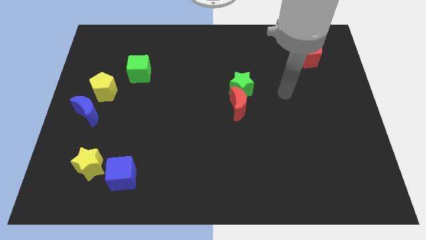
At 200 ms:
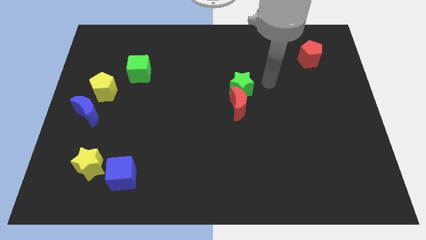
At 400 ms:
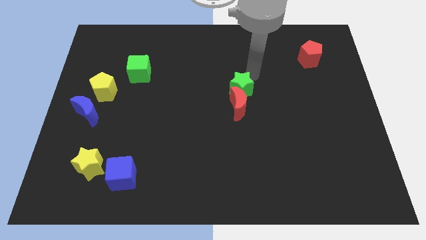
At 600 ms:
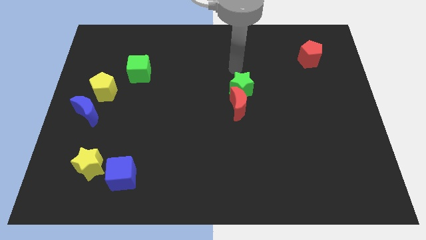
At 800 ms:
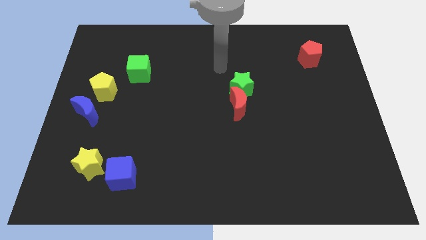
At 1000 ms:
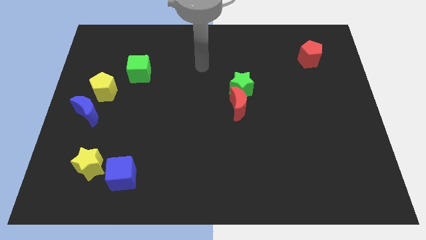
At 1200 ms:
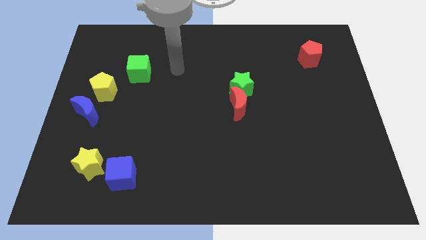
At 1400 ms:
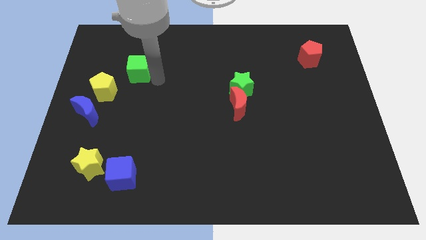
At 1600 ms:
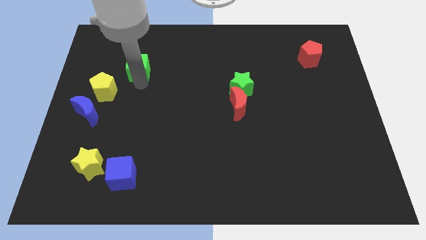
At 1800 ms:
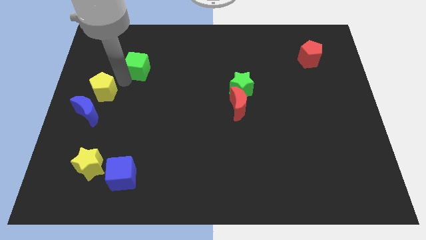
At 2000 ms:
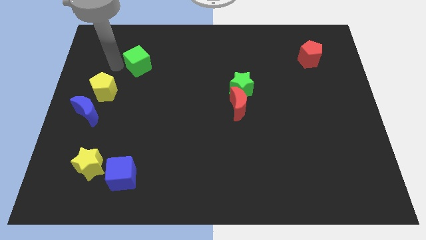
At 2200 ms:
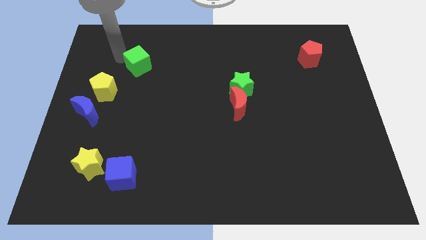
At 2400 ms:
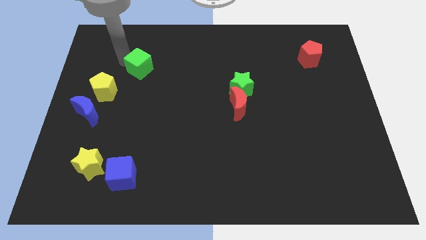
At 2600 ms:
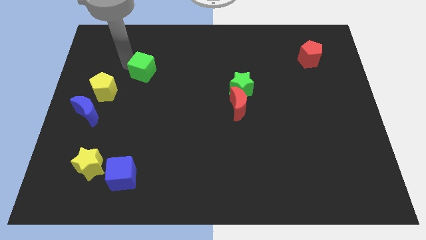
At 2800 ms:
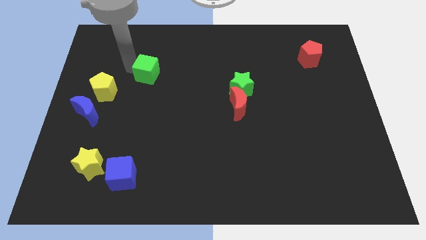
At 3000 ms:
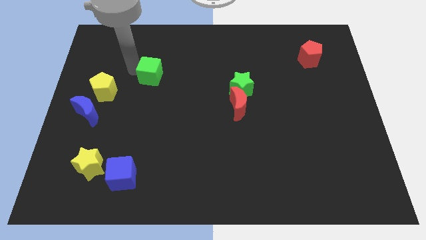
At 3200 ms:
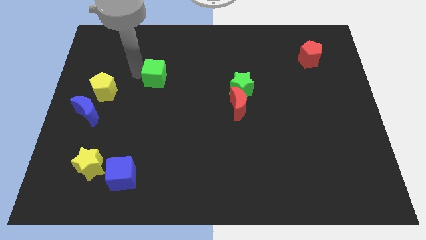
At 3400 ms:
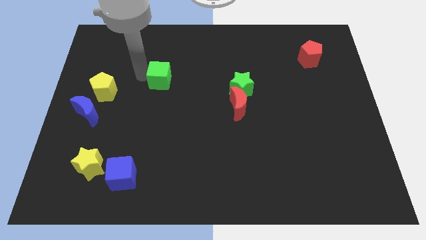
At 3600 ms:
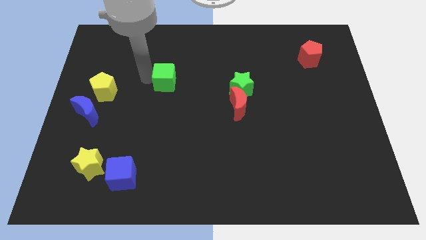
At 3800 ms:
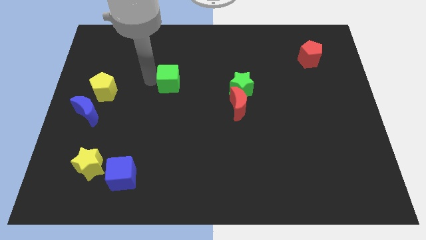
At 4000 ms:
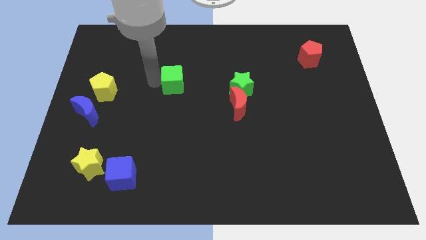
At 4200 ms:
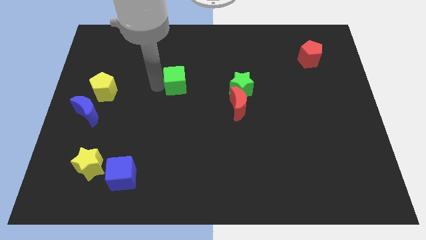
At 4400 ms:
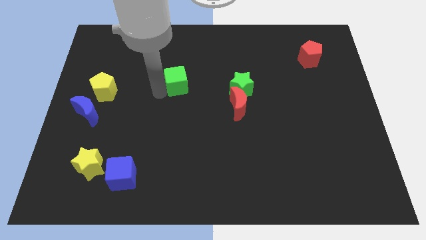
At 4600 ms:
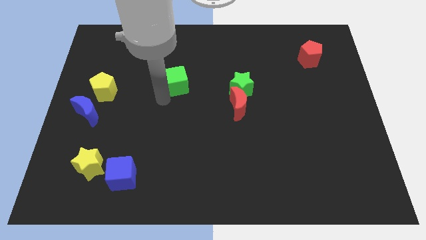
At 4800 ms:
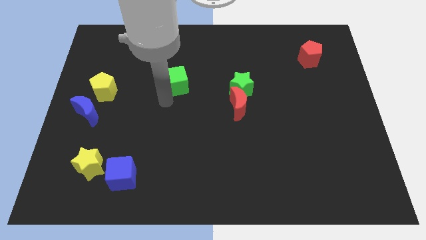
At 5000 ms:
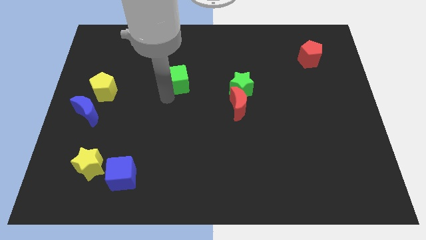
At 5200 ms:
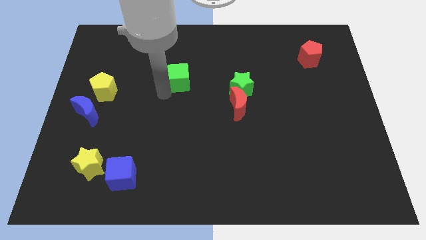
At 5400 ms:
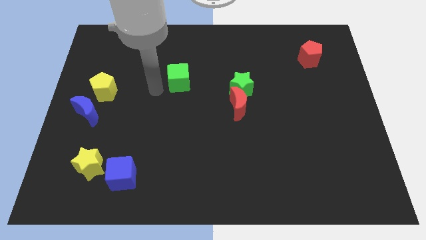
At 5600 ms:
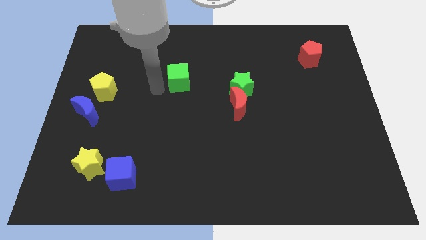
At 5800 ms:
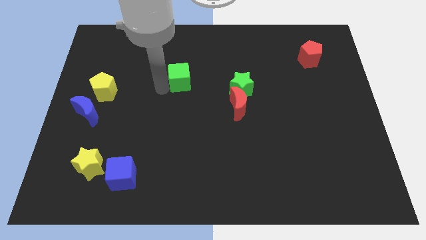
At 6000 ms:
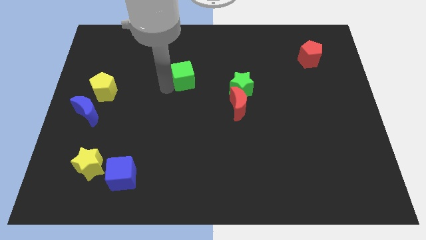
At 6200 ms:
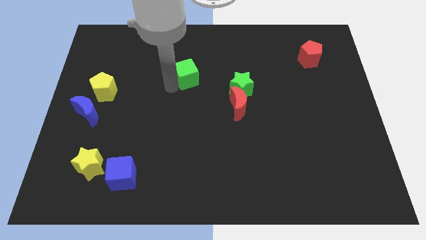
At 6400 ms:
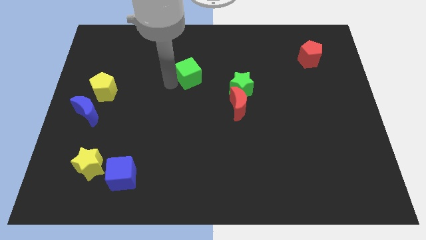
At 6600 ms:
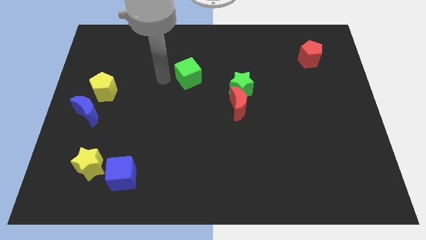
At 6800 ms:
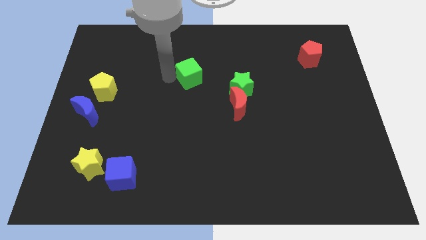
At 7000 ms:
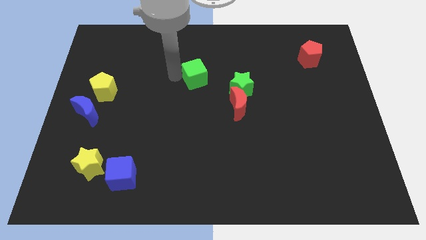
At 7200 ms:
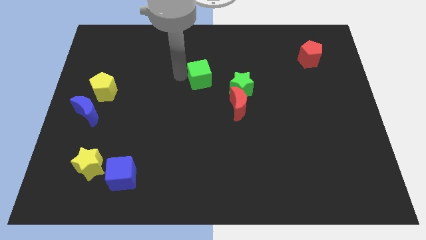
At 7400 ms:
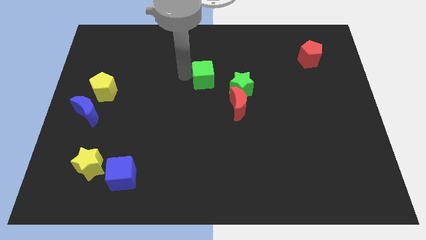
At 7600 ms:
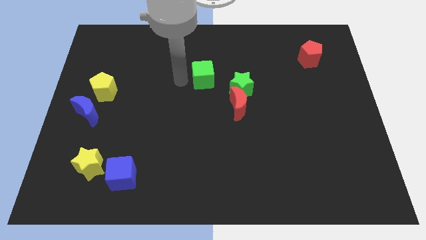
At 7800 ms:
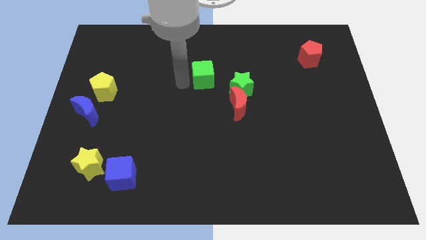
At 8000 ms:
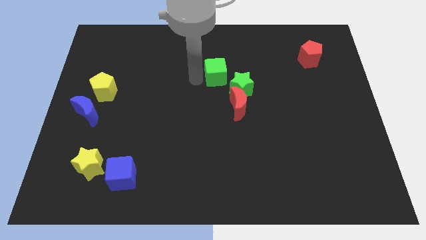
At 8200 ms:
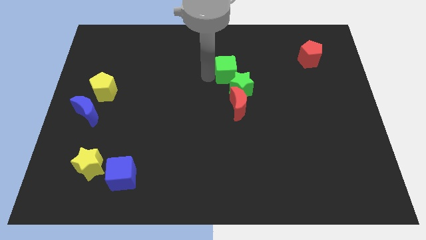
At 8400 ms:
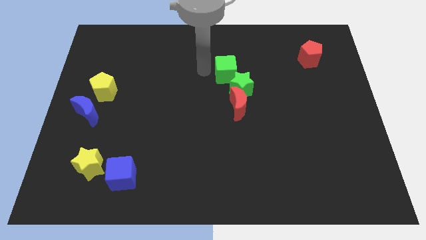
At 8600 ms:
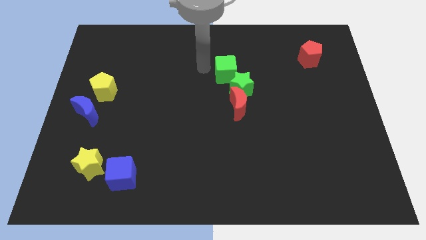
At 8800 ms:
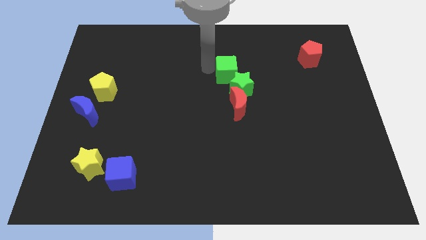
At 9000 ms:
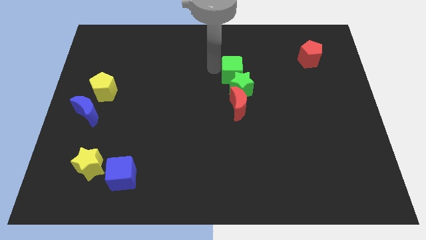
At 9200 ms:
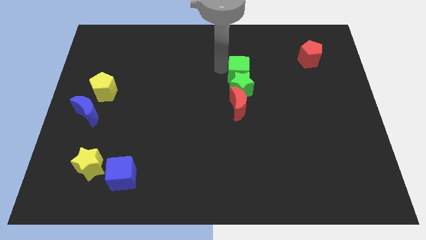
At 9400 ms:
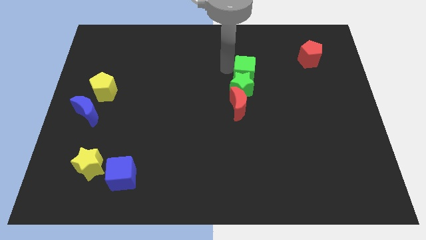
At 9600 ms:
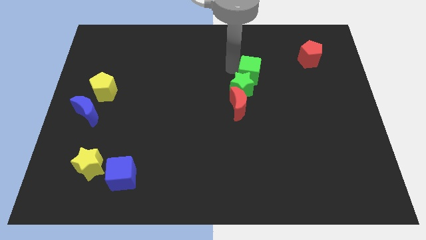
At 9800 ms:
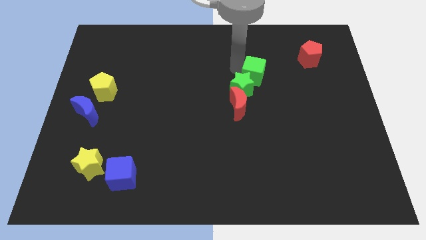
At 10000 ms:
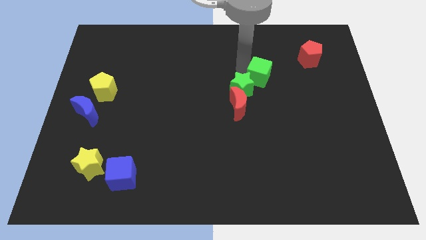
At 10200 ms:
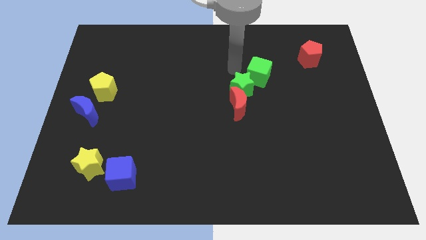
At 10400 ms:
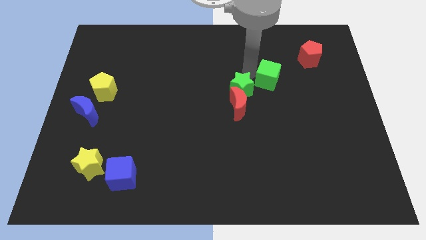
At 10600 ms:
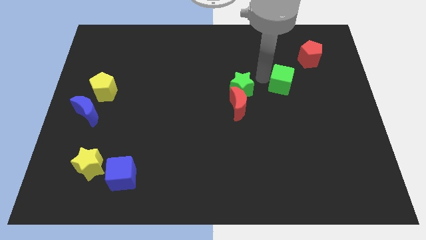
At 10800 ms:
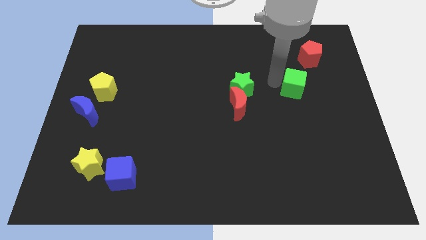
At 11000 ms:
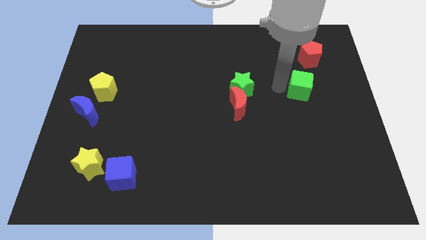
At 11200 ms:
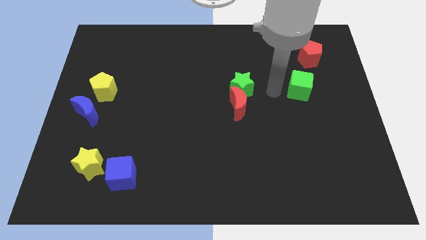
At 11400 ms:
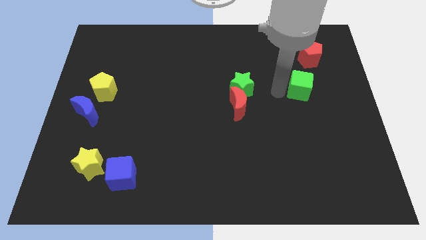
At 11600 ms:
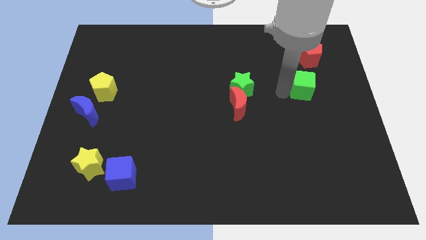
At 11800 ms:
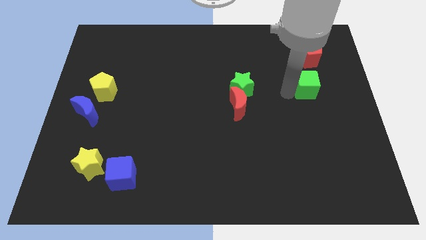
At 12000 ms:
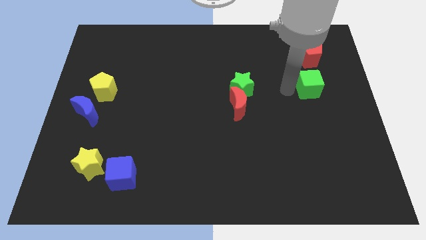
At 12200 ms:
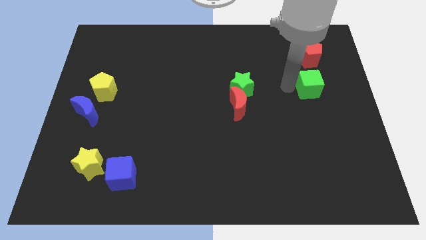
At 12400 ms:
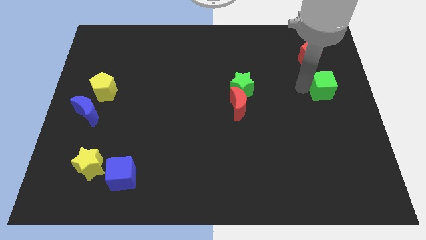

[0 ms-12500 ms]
push the green cube to the right side of the board
